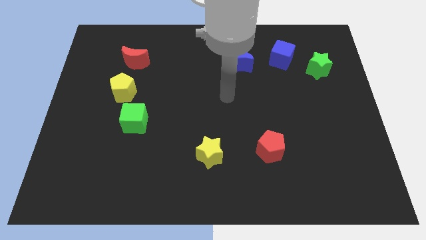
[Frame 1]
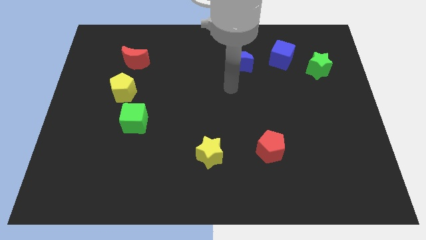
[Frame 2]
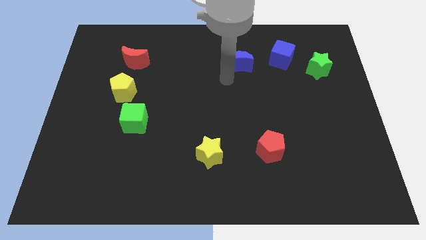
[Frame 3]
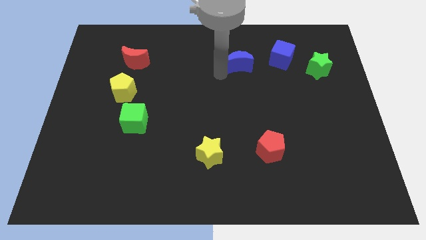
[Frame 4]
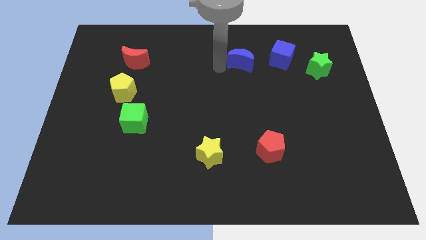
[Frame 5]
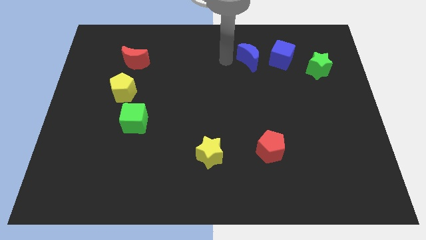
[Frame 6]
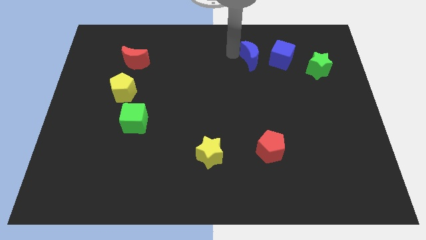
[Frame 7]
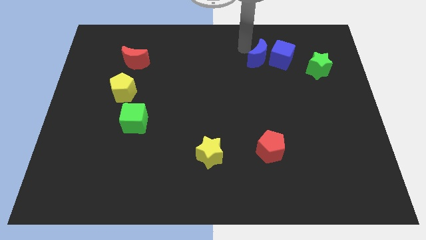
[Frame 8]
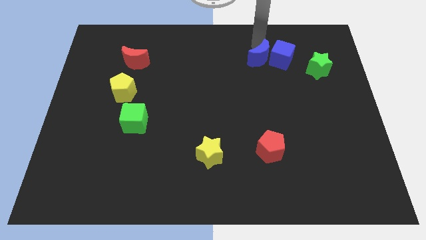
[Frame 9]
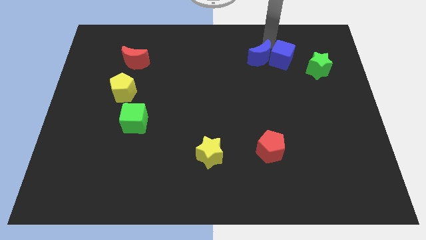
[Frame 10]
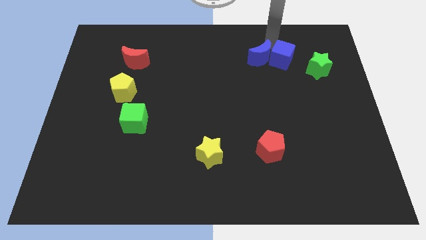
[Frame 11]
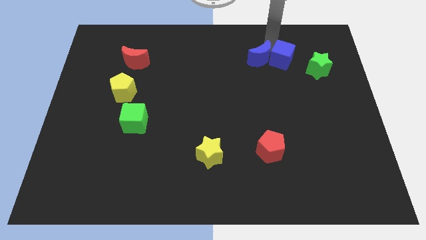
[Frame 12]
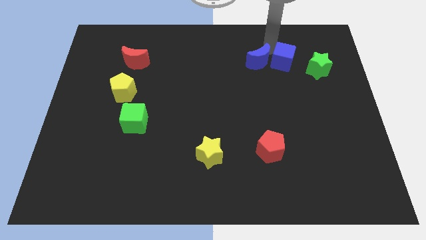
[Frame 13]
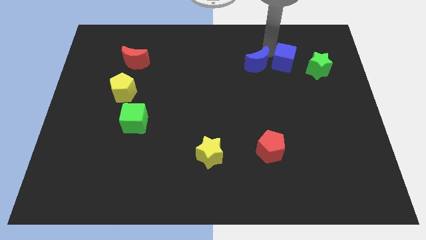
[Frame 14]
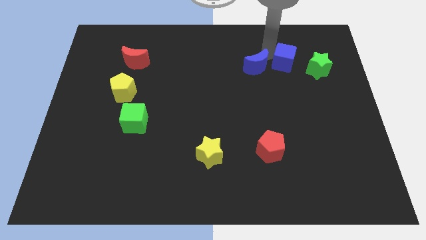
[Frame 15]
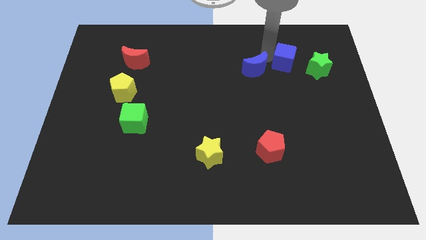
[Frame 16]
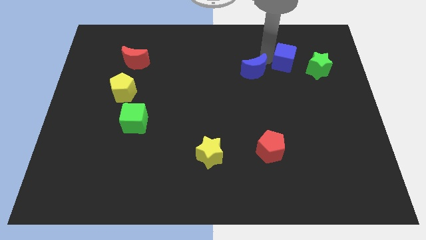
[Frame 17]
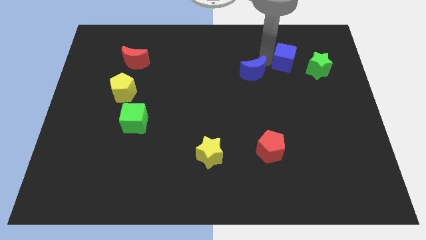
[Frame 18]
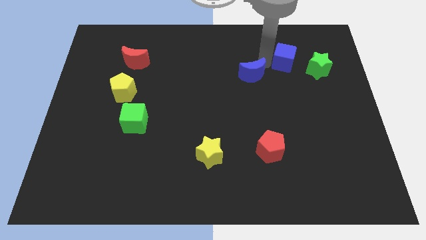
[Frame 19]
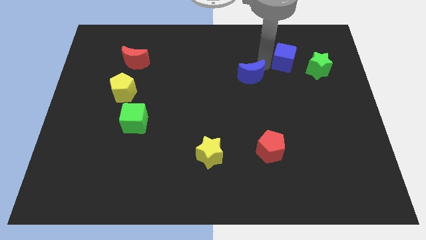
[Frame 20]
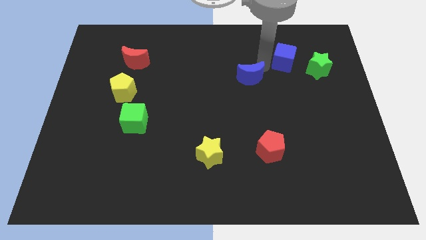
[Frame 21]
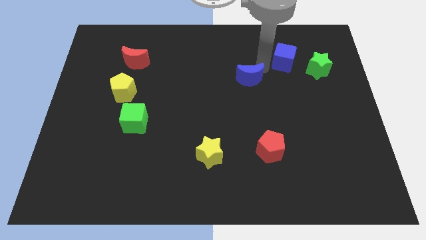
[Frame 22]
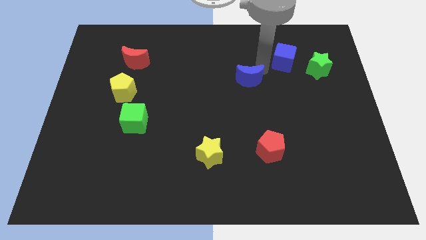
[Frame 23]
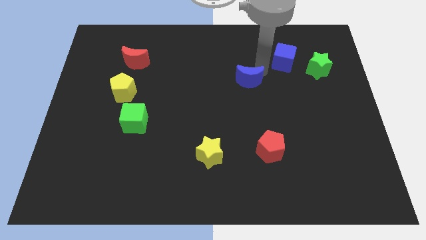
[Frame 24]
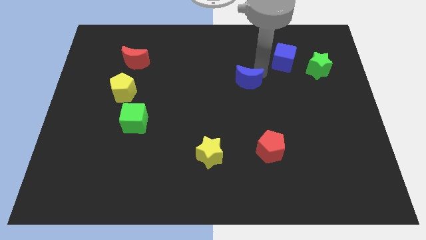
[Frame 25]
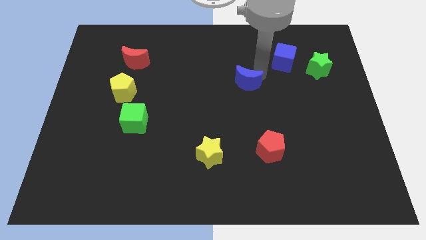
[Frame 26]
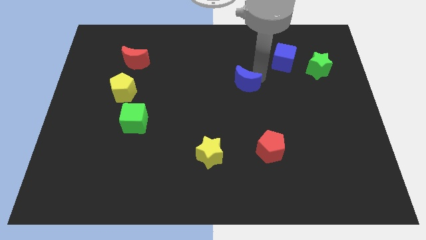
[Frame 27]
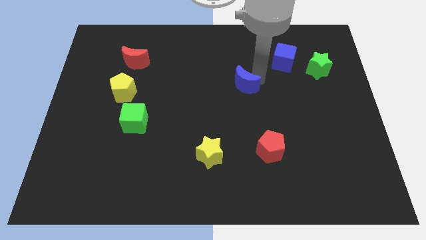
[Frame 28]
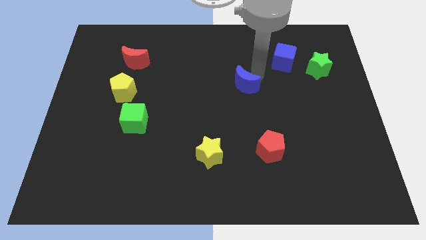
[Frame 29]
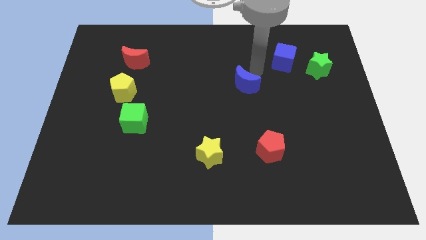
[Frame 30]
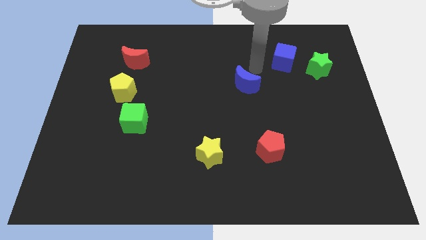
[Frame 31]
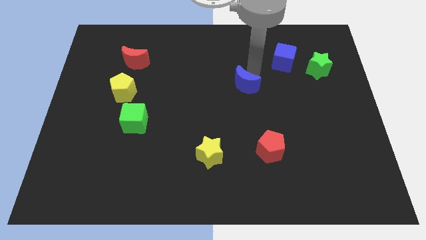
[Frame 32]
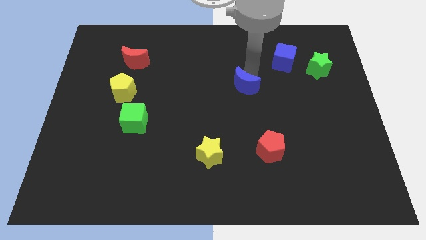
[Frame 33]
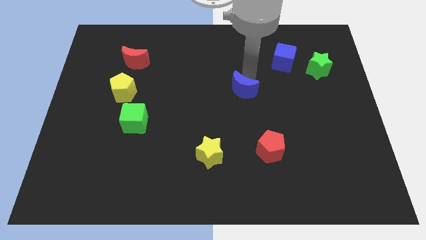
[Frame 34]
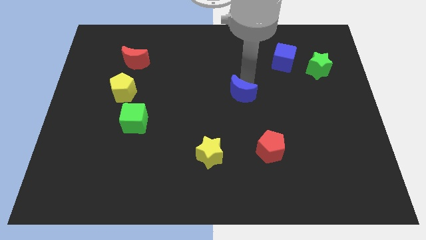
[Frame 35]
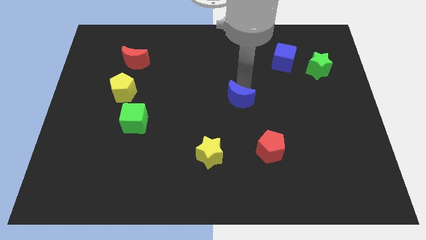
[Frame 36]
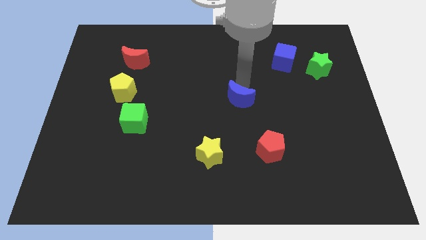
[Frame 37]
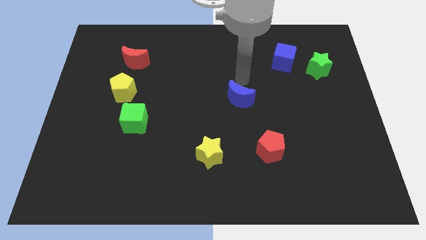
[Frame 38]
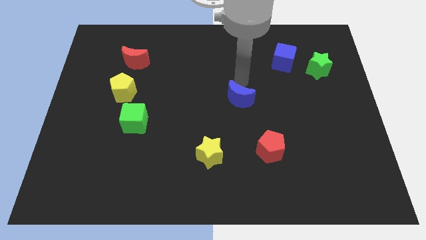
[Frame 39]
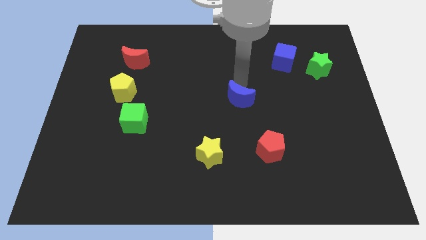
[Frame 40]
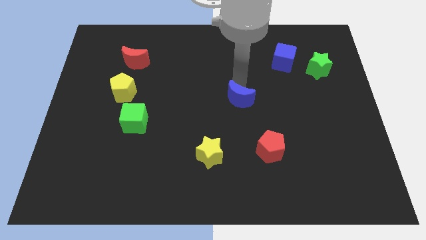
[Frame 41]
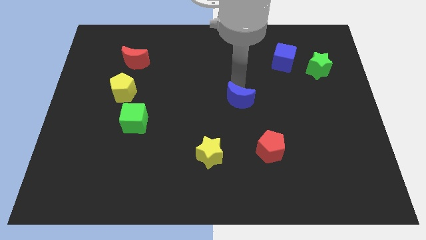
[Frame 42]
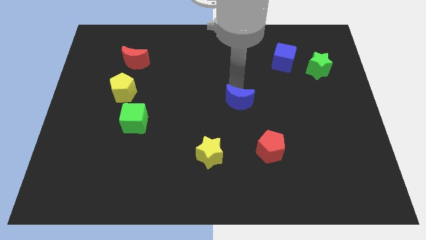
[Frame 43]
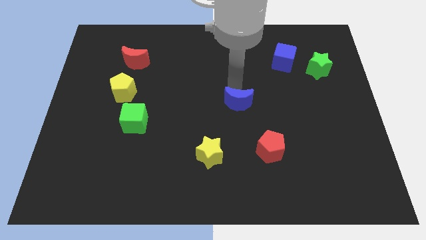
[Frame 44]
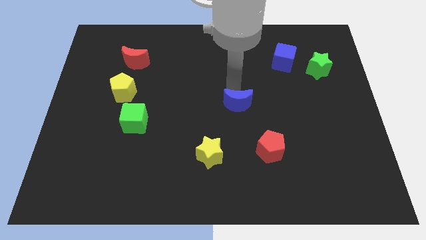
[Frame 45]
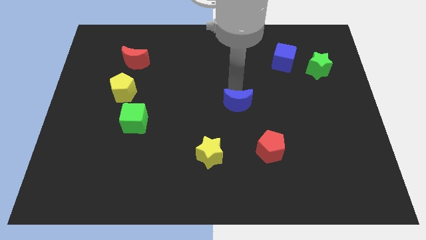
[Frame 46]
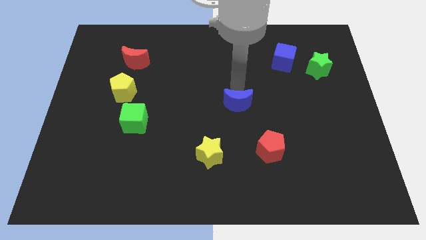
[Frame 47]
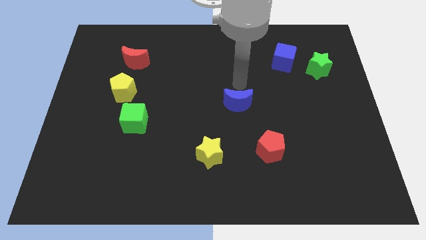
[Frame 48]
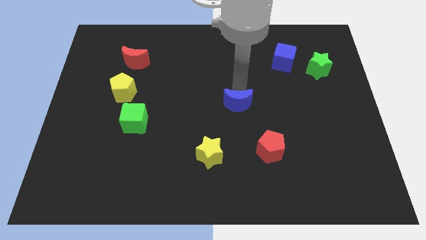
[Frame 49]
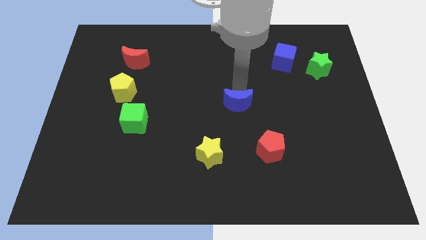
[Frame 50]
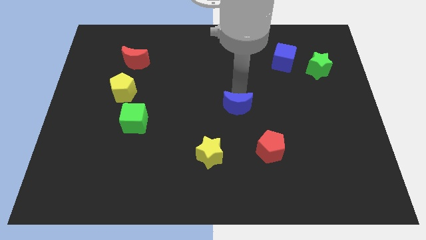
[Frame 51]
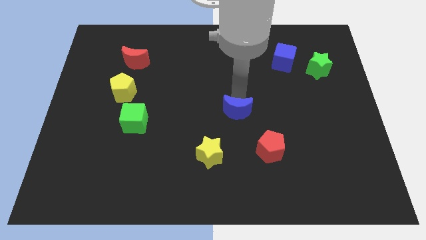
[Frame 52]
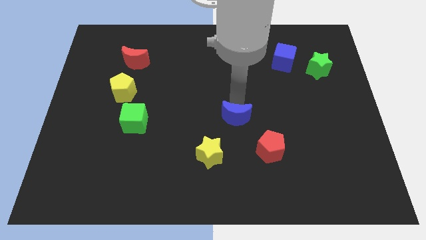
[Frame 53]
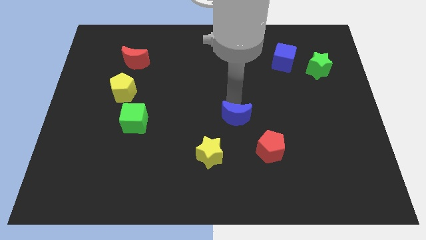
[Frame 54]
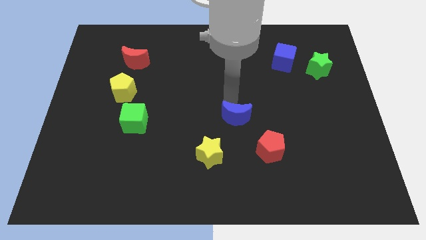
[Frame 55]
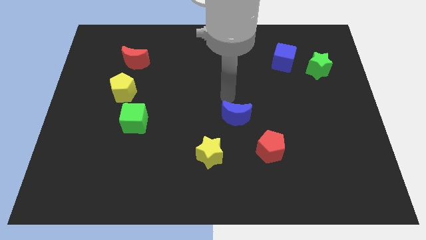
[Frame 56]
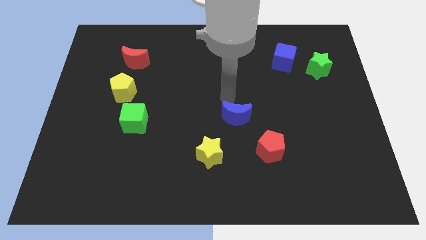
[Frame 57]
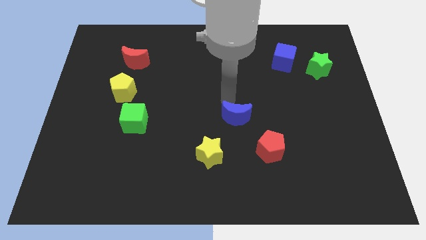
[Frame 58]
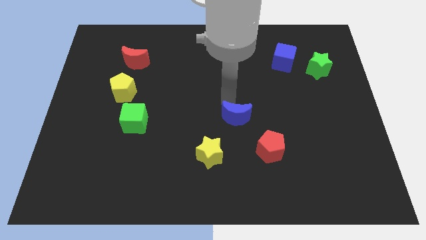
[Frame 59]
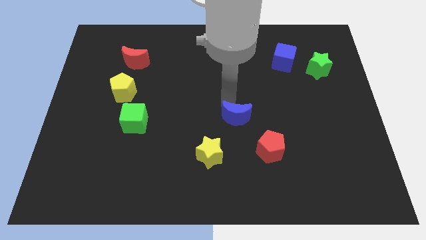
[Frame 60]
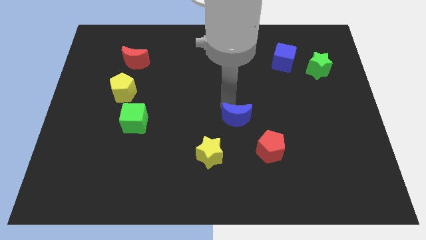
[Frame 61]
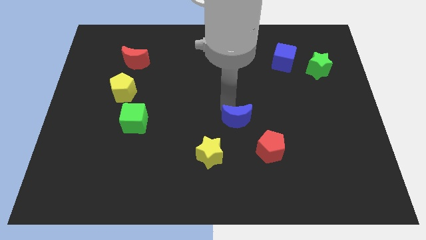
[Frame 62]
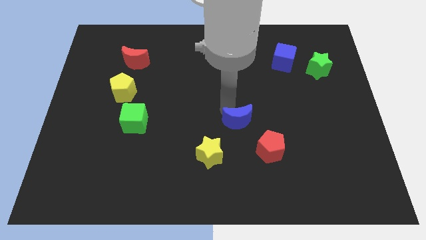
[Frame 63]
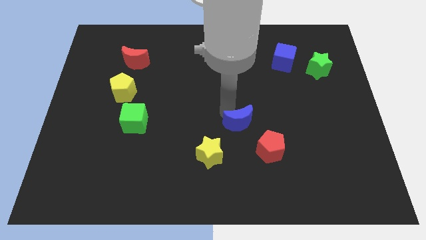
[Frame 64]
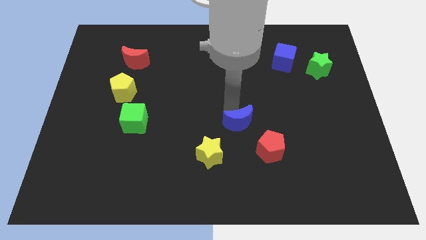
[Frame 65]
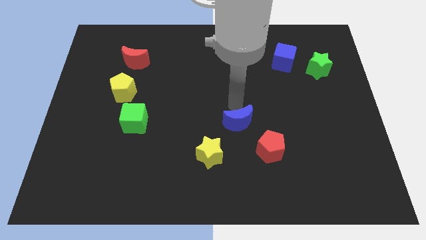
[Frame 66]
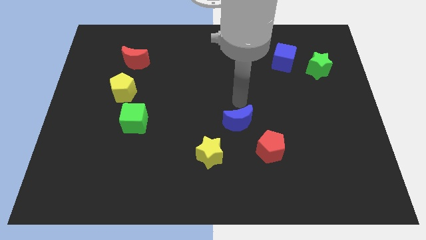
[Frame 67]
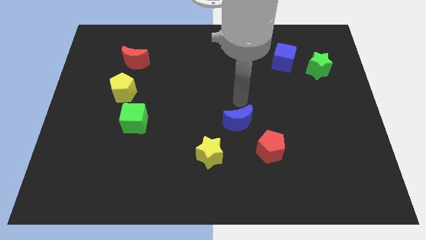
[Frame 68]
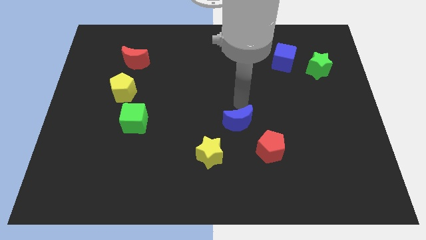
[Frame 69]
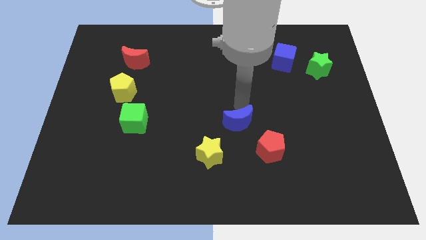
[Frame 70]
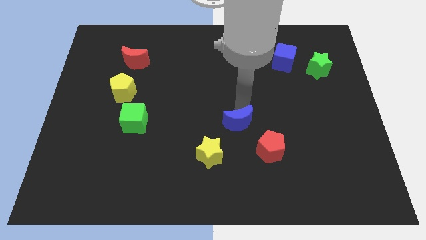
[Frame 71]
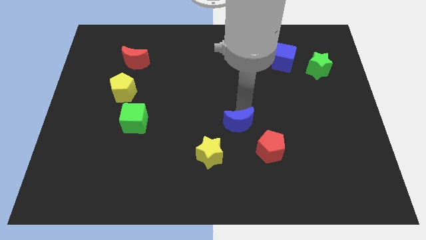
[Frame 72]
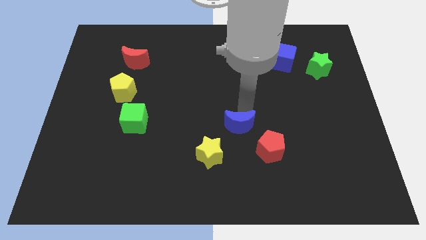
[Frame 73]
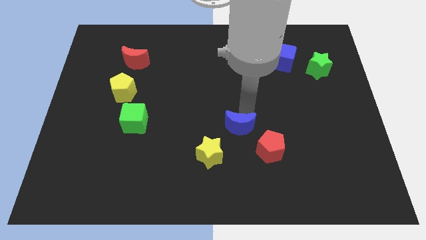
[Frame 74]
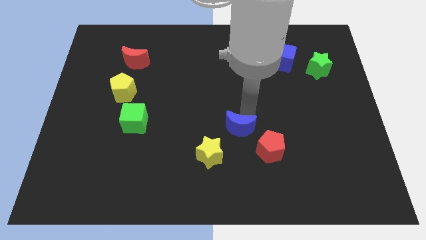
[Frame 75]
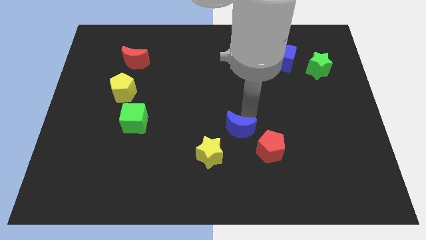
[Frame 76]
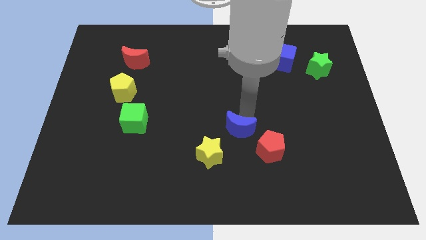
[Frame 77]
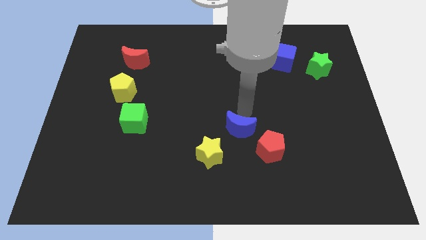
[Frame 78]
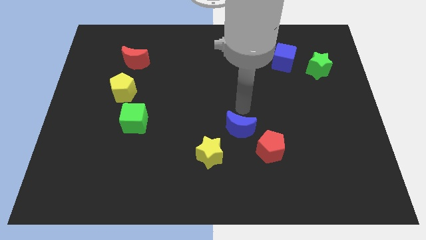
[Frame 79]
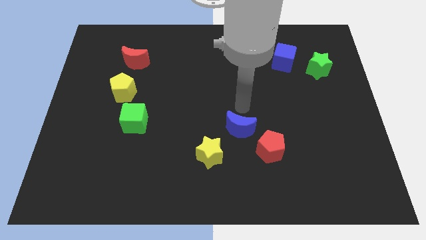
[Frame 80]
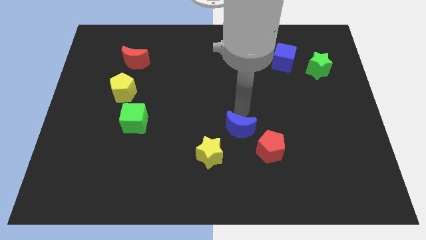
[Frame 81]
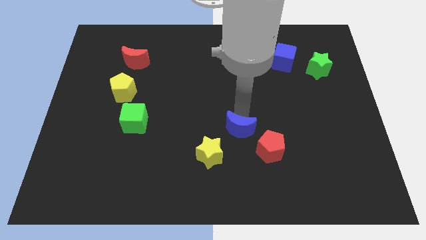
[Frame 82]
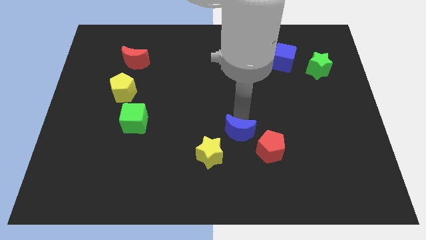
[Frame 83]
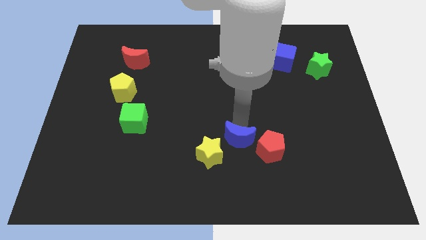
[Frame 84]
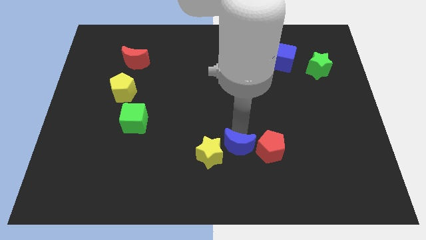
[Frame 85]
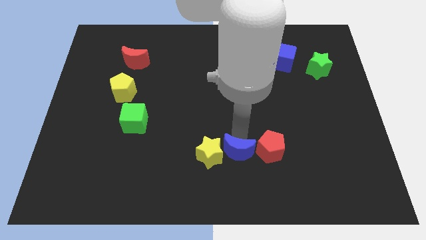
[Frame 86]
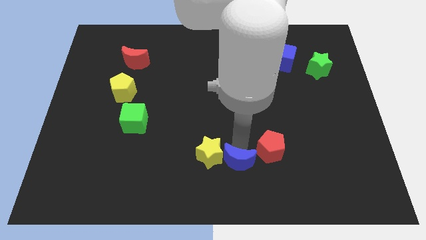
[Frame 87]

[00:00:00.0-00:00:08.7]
move the blue moon to the bottom
